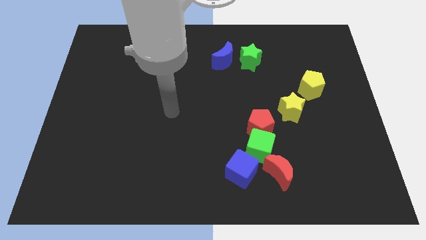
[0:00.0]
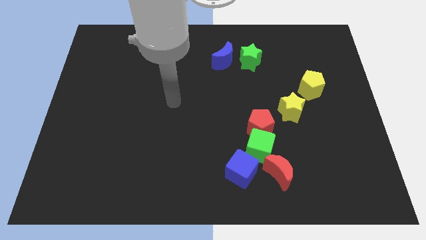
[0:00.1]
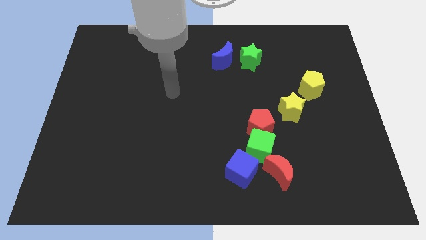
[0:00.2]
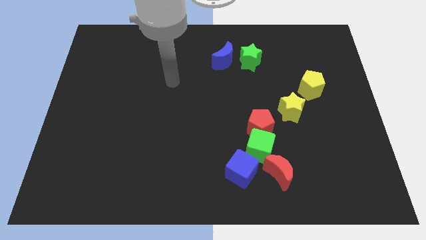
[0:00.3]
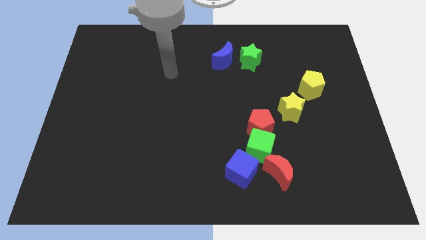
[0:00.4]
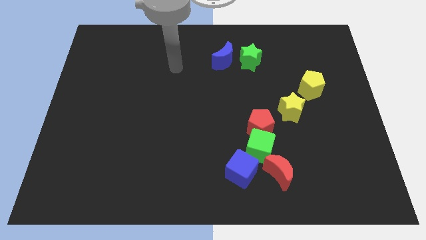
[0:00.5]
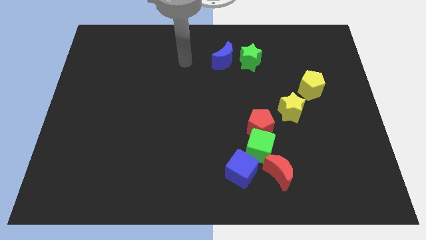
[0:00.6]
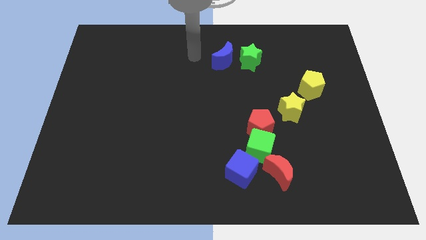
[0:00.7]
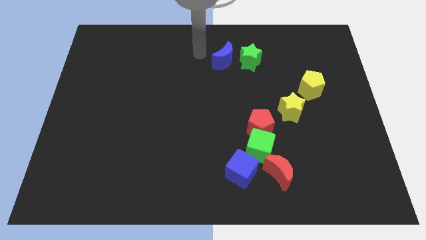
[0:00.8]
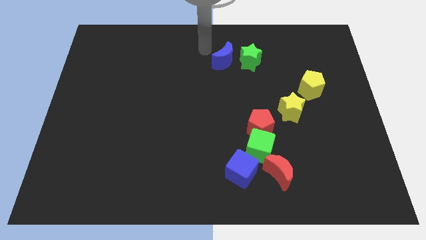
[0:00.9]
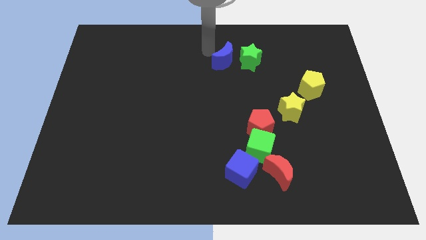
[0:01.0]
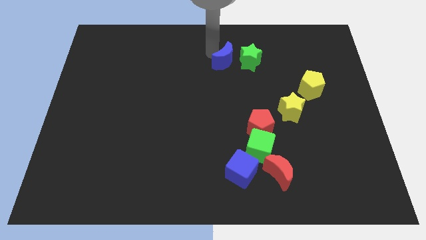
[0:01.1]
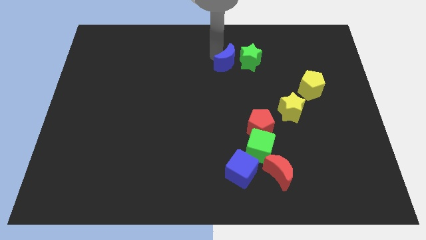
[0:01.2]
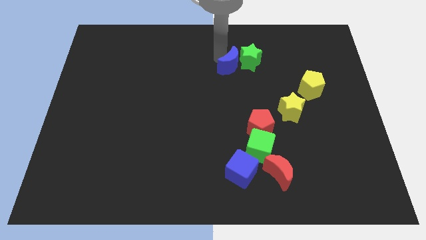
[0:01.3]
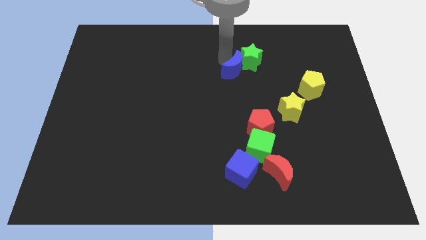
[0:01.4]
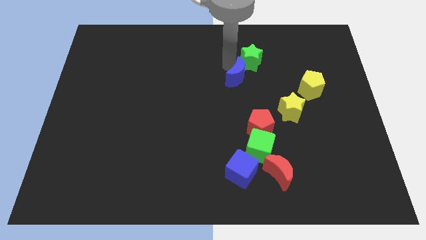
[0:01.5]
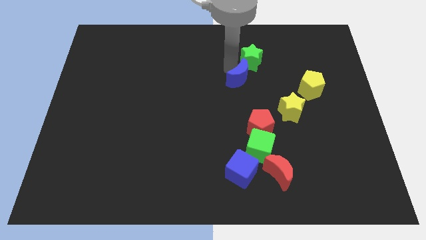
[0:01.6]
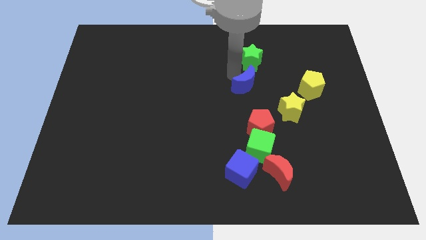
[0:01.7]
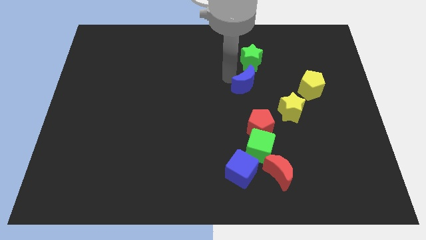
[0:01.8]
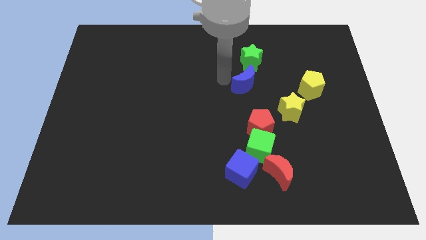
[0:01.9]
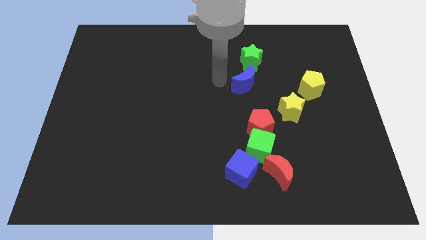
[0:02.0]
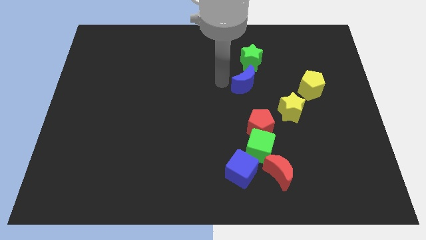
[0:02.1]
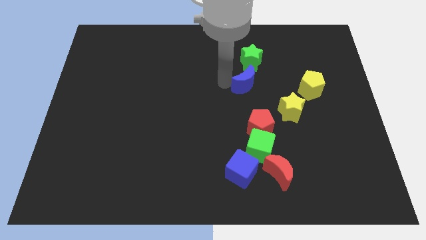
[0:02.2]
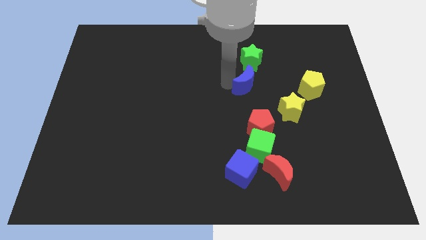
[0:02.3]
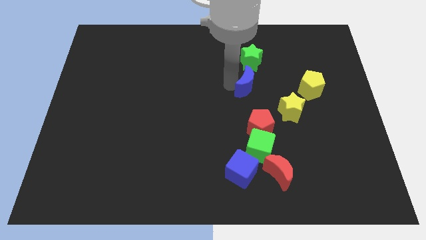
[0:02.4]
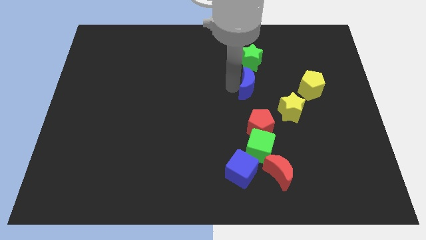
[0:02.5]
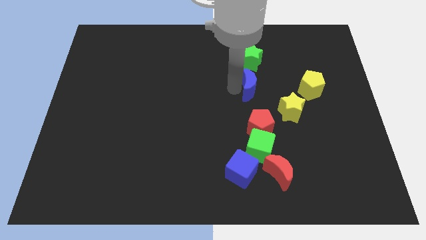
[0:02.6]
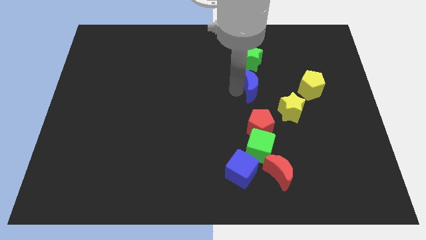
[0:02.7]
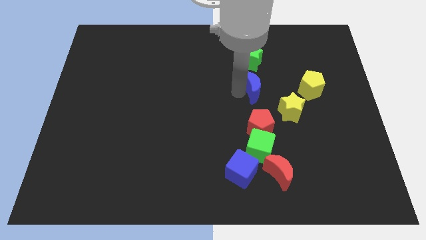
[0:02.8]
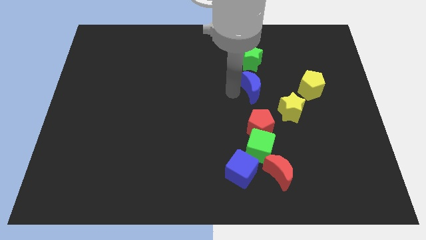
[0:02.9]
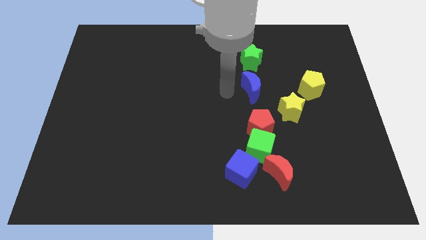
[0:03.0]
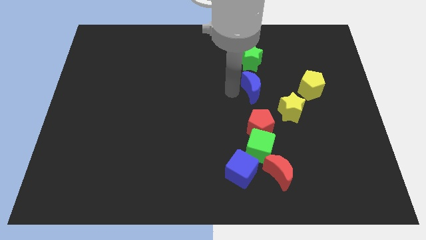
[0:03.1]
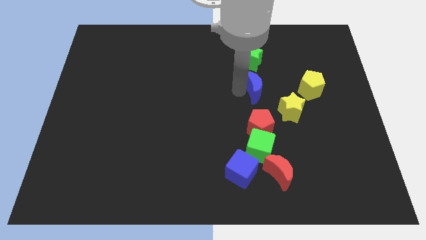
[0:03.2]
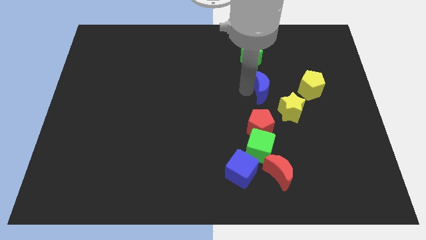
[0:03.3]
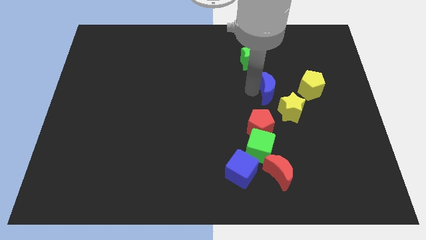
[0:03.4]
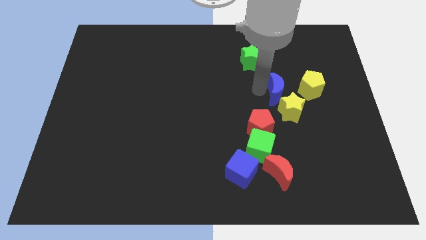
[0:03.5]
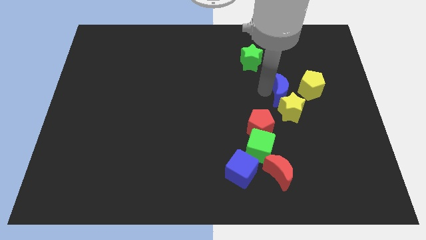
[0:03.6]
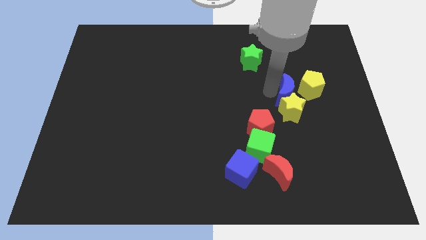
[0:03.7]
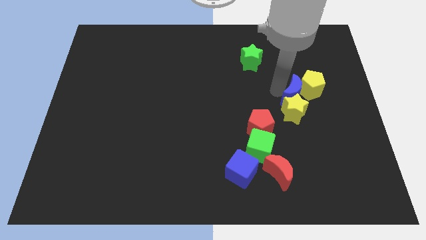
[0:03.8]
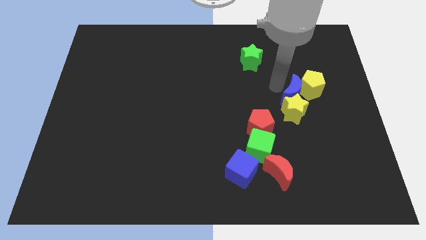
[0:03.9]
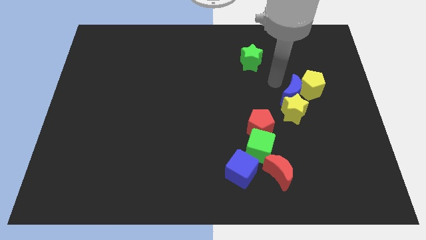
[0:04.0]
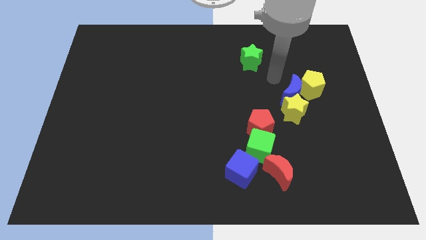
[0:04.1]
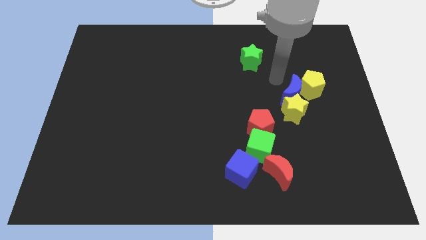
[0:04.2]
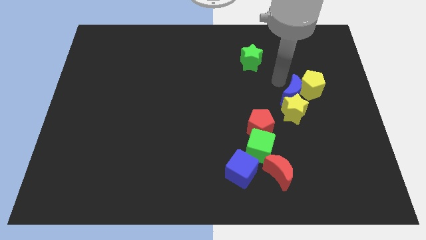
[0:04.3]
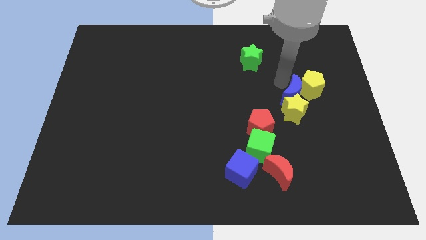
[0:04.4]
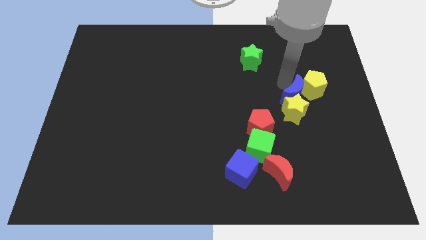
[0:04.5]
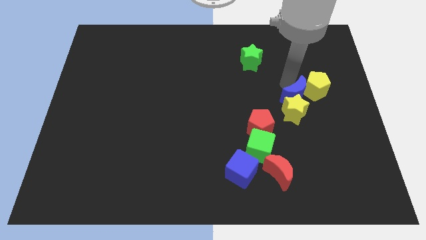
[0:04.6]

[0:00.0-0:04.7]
slide the blue moon downwards and to the right

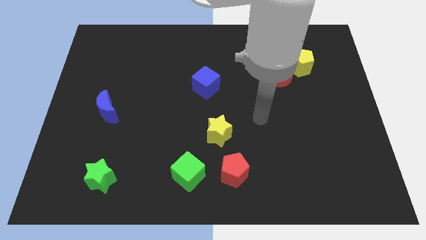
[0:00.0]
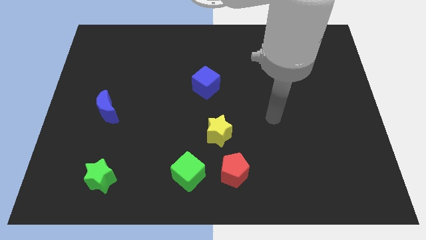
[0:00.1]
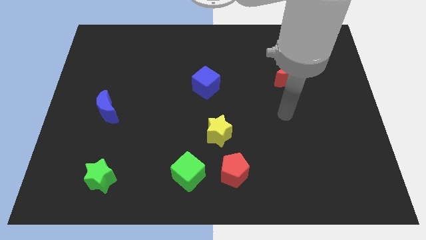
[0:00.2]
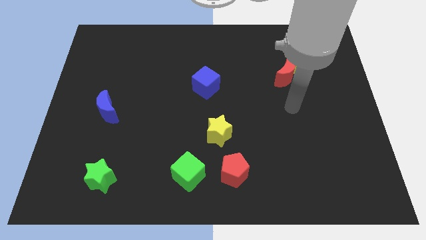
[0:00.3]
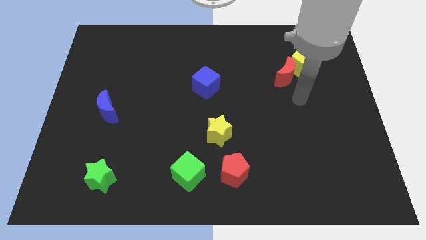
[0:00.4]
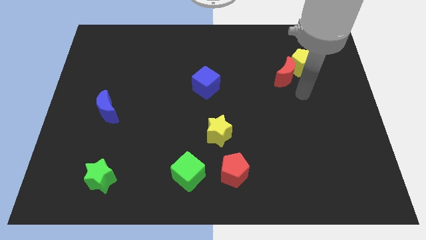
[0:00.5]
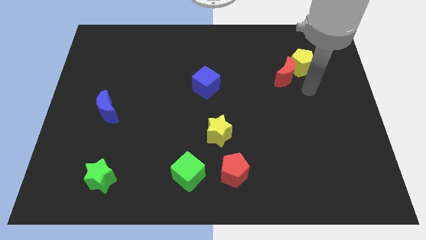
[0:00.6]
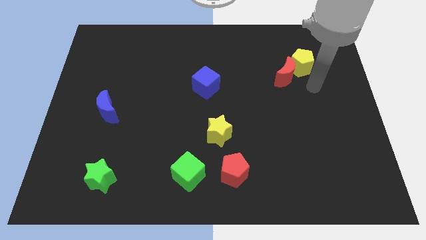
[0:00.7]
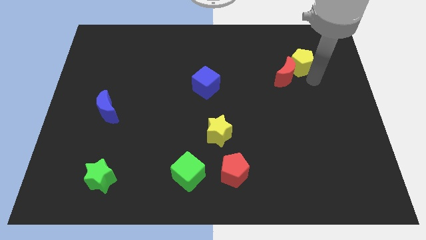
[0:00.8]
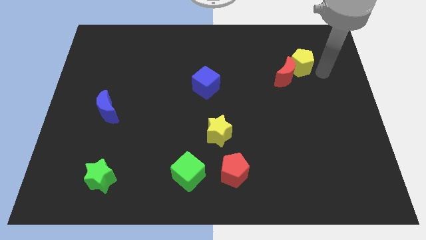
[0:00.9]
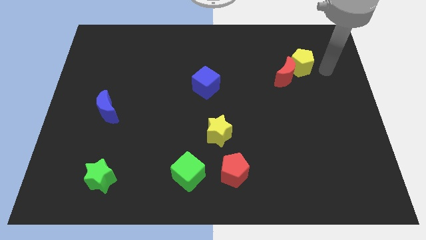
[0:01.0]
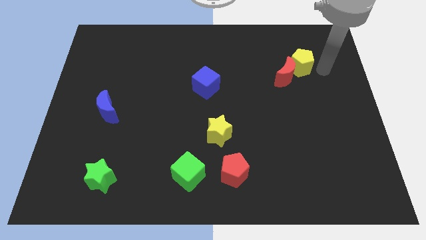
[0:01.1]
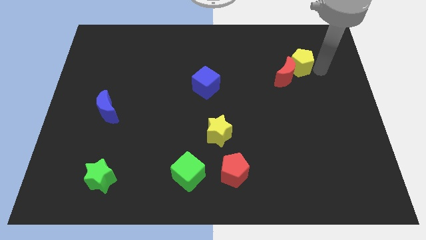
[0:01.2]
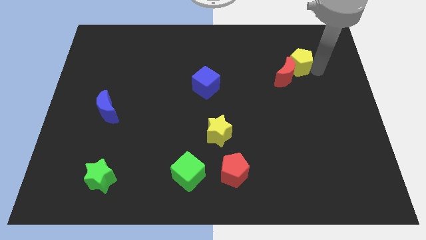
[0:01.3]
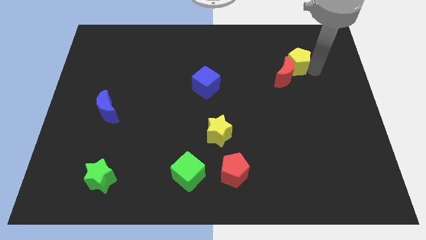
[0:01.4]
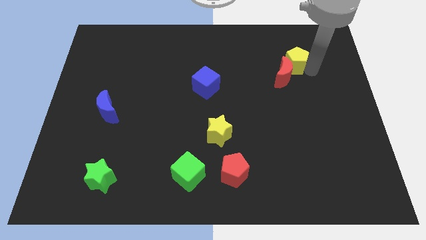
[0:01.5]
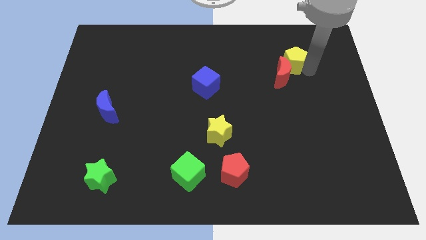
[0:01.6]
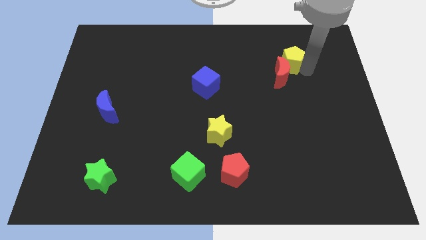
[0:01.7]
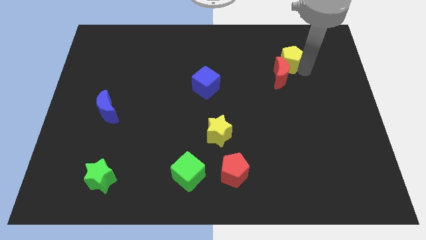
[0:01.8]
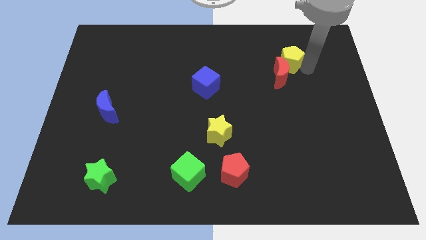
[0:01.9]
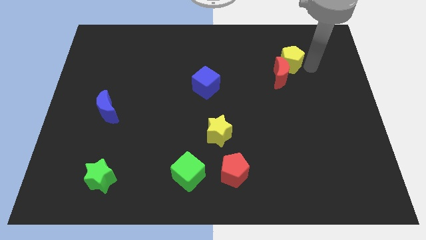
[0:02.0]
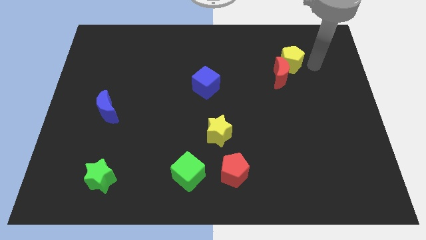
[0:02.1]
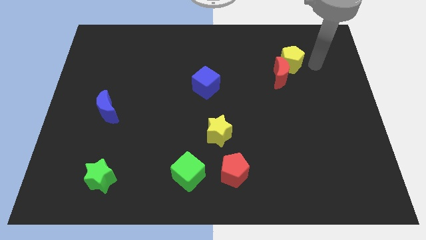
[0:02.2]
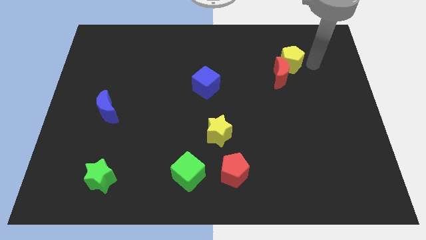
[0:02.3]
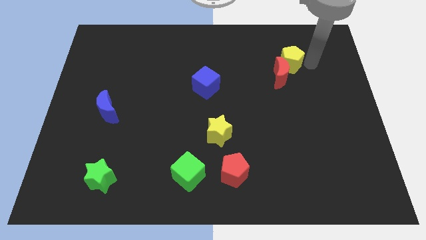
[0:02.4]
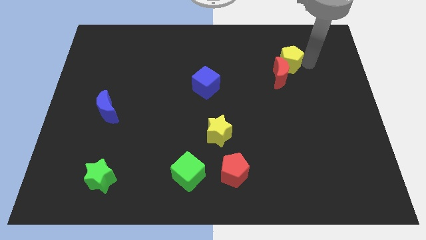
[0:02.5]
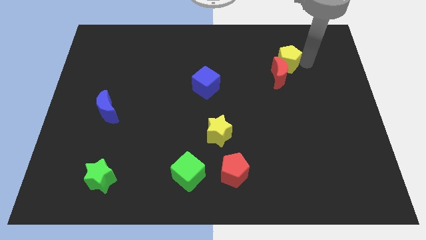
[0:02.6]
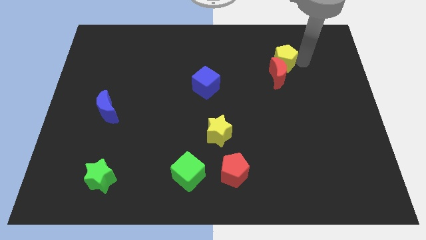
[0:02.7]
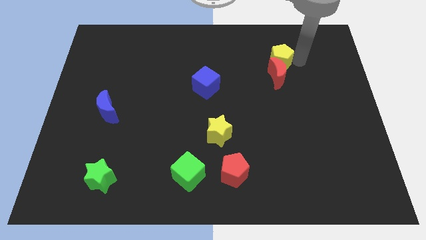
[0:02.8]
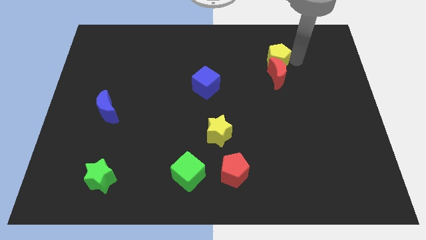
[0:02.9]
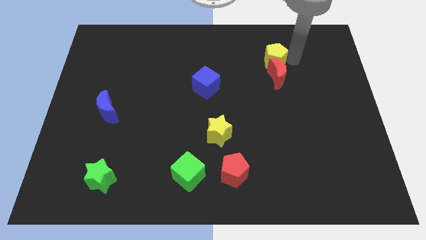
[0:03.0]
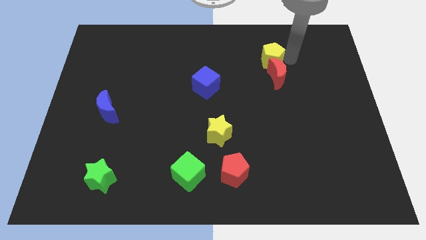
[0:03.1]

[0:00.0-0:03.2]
slide the yellow pentagon left a bit
